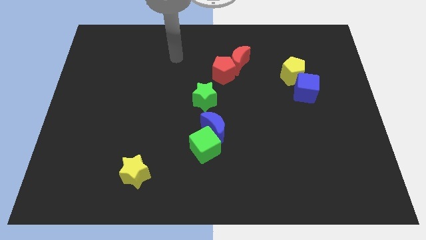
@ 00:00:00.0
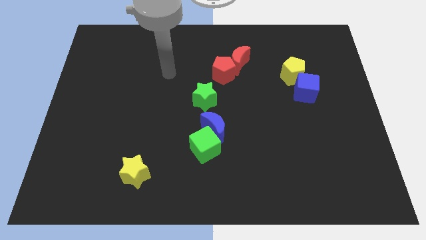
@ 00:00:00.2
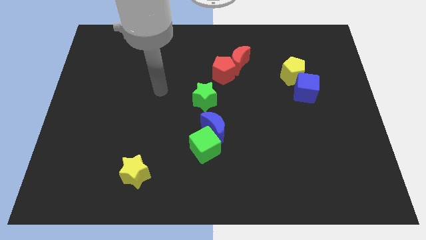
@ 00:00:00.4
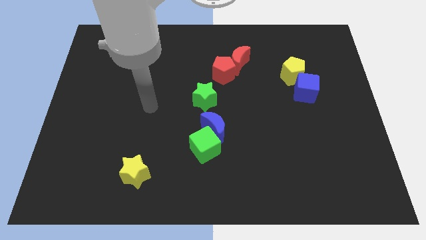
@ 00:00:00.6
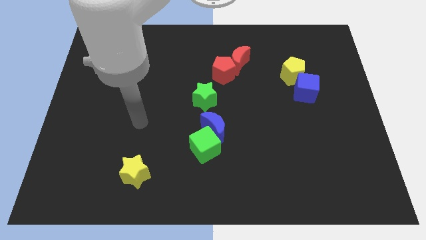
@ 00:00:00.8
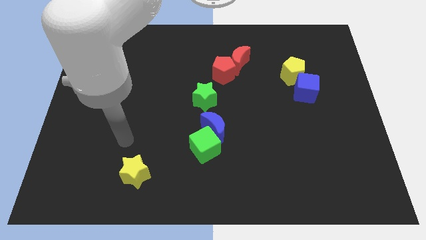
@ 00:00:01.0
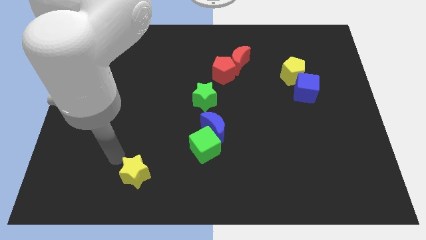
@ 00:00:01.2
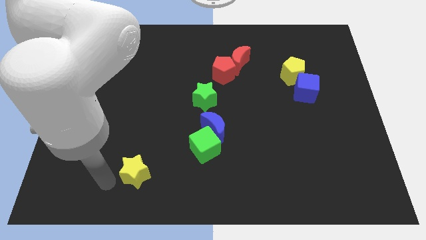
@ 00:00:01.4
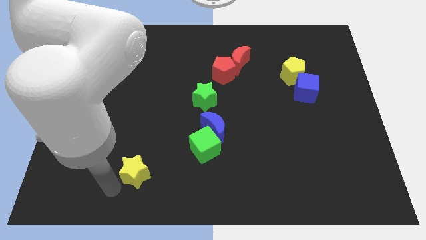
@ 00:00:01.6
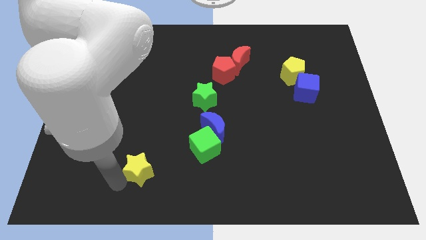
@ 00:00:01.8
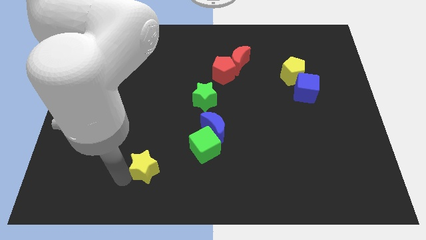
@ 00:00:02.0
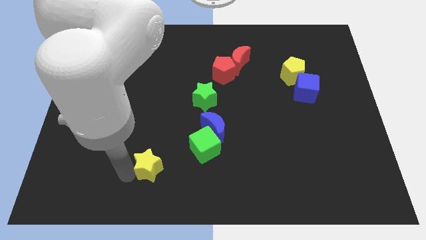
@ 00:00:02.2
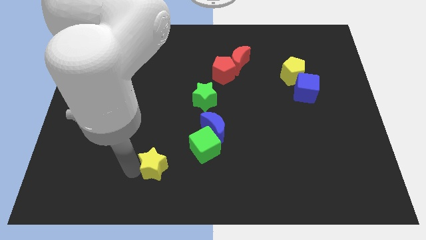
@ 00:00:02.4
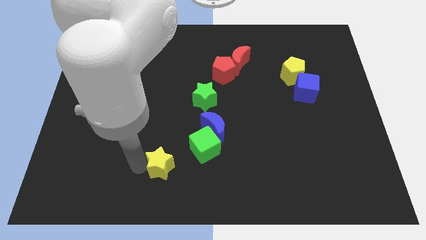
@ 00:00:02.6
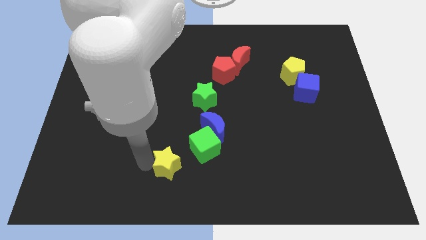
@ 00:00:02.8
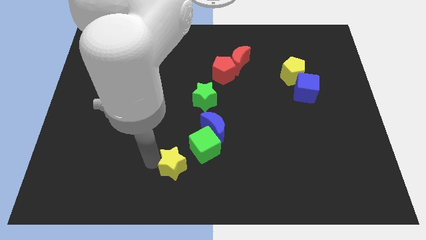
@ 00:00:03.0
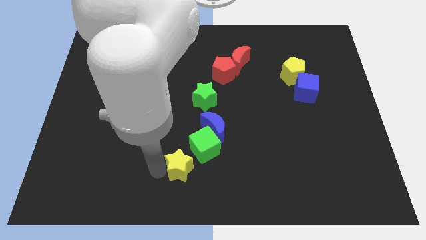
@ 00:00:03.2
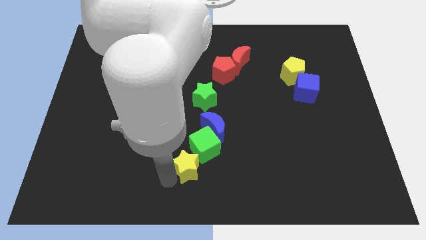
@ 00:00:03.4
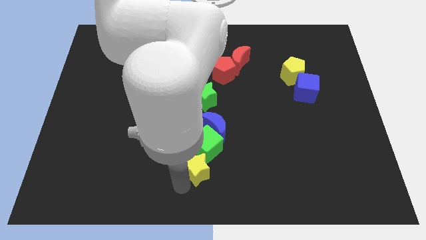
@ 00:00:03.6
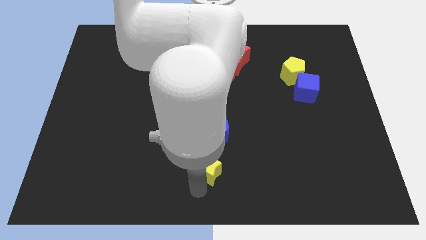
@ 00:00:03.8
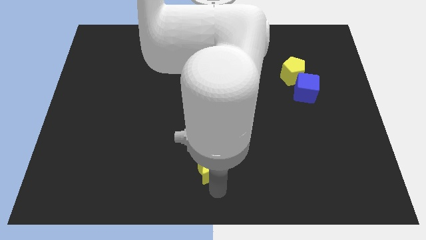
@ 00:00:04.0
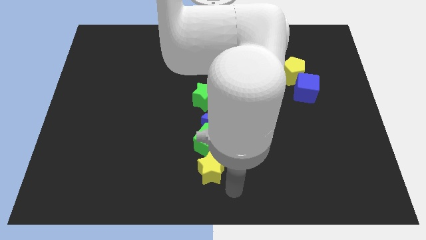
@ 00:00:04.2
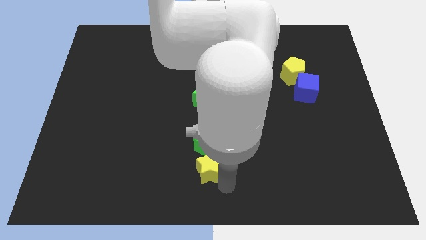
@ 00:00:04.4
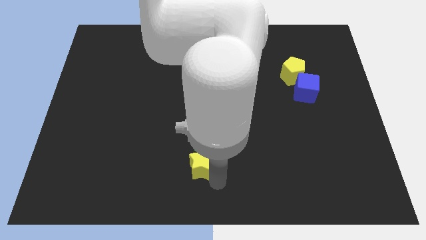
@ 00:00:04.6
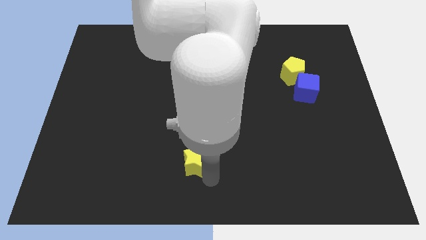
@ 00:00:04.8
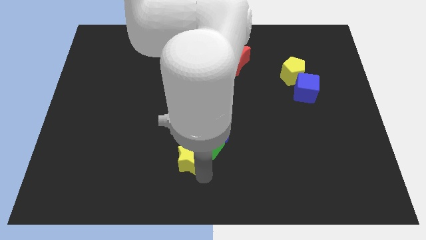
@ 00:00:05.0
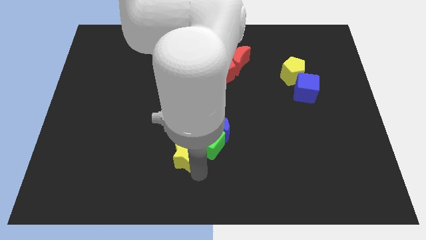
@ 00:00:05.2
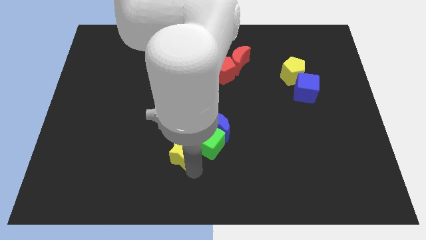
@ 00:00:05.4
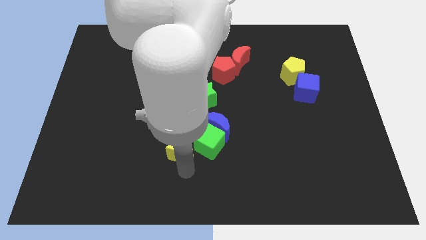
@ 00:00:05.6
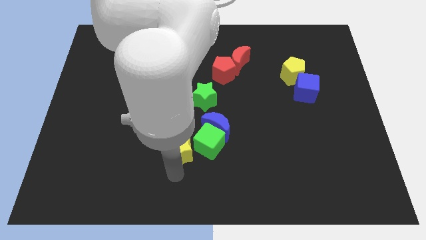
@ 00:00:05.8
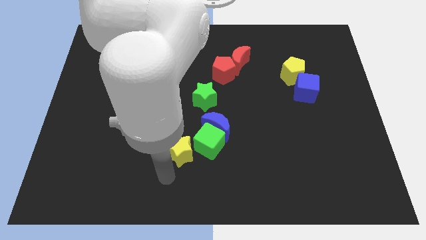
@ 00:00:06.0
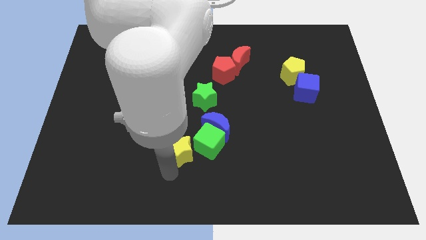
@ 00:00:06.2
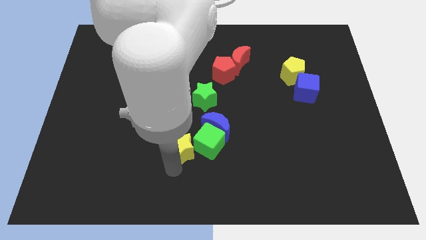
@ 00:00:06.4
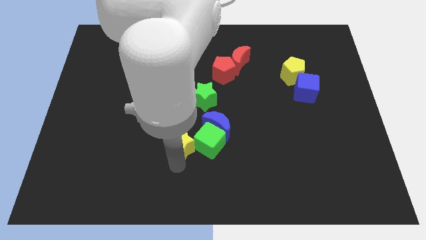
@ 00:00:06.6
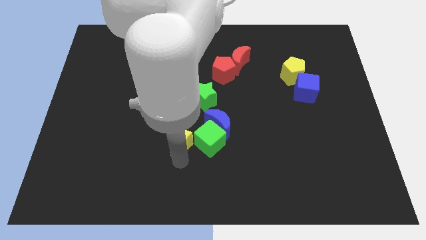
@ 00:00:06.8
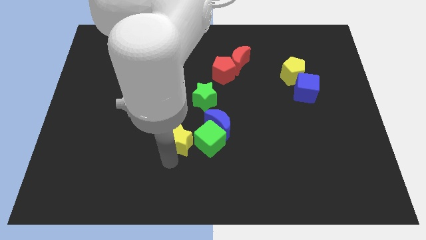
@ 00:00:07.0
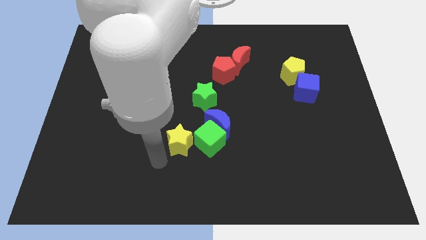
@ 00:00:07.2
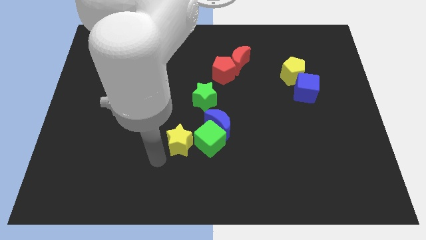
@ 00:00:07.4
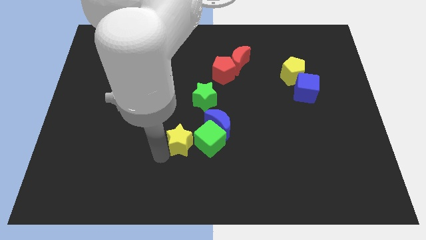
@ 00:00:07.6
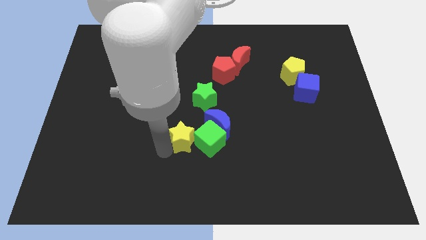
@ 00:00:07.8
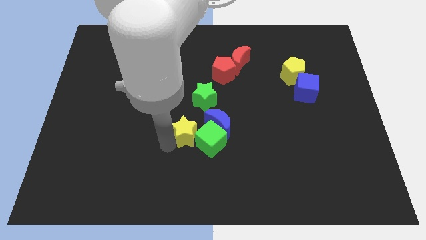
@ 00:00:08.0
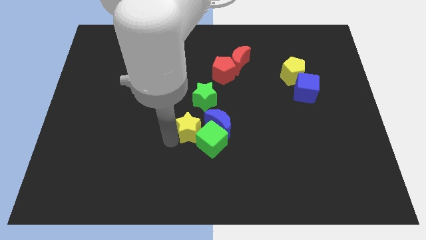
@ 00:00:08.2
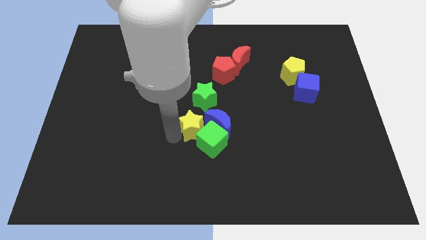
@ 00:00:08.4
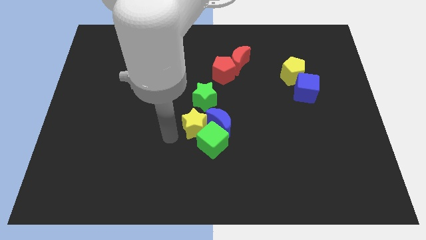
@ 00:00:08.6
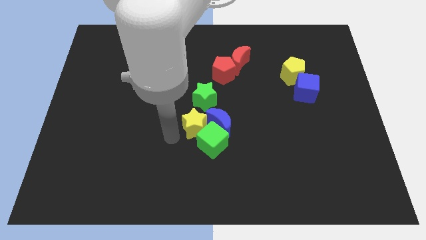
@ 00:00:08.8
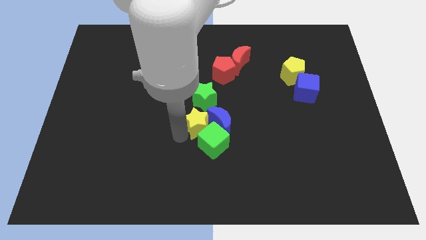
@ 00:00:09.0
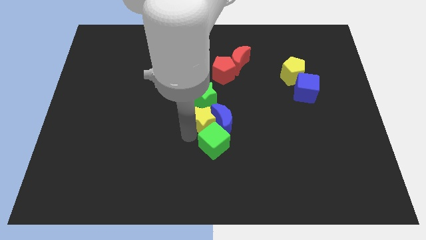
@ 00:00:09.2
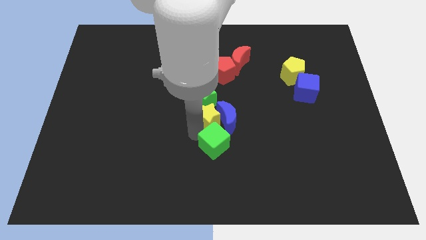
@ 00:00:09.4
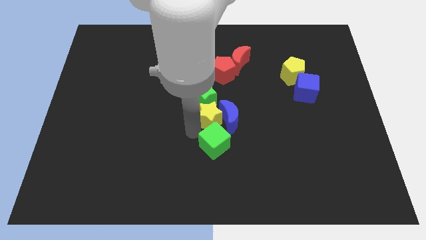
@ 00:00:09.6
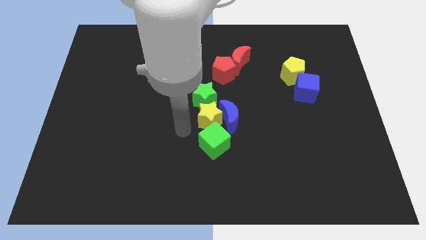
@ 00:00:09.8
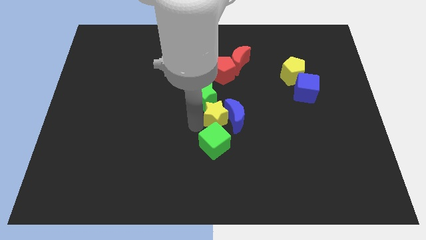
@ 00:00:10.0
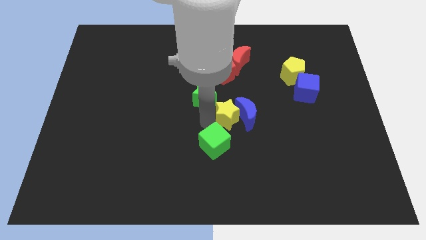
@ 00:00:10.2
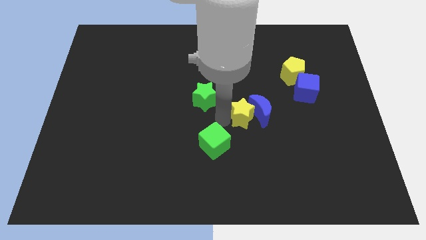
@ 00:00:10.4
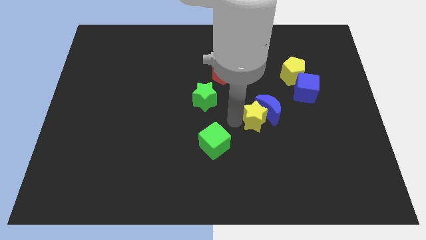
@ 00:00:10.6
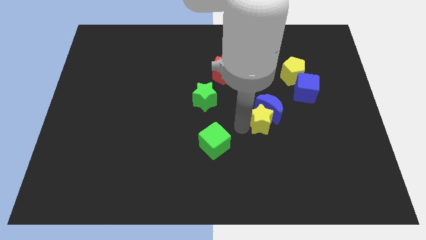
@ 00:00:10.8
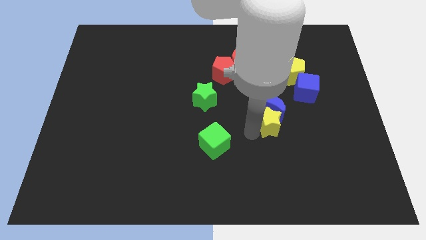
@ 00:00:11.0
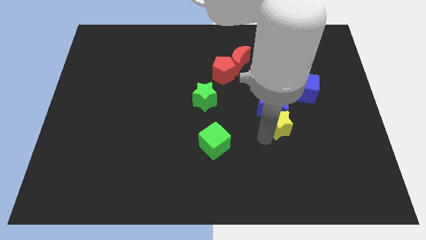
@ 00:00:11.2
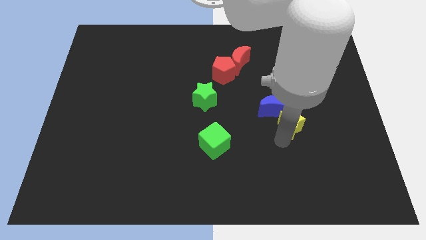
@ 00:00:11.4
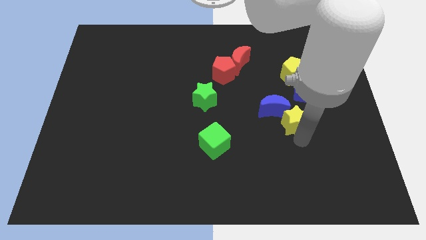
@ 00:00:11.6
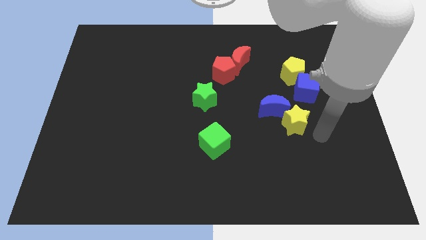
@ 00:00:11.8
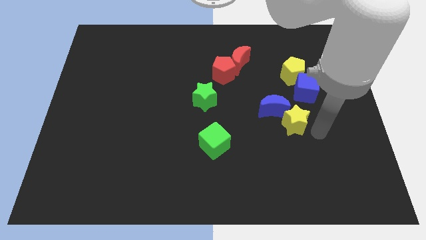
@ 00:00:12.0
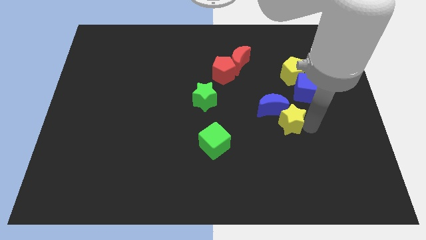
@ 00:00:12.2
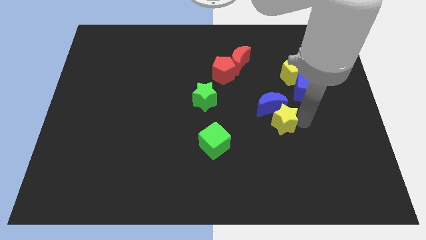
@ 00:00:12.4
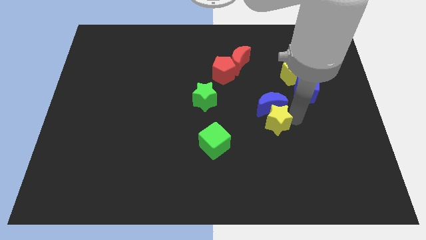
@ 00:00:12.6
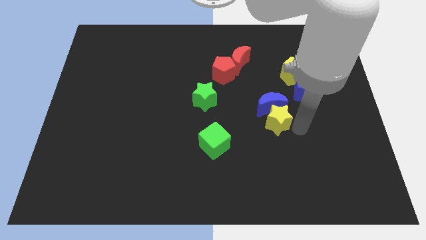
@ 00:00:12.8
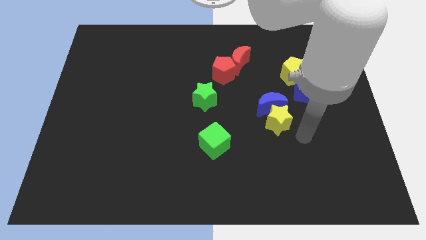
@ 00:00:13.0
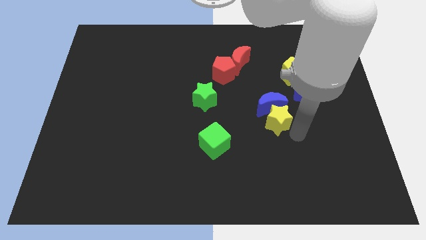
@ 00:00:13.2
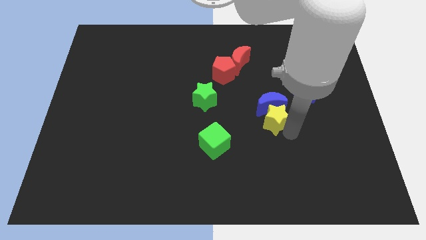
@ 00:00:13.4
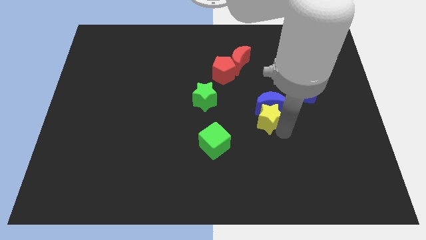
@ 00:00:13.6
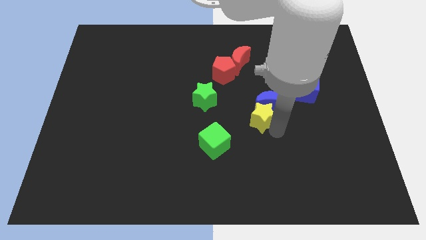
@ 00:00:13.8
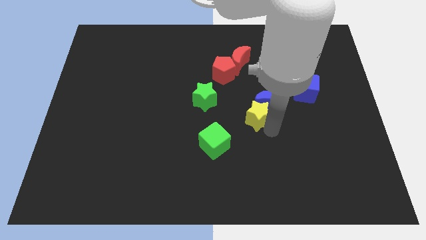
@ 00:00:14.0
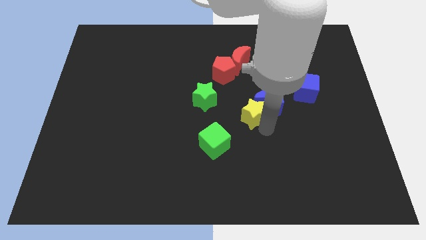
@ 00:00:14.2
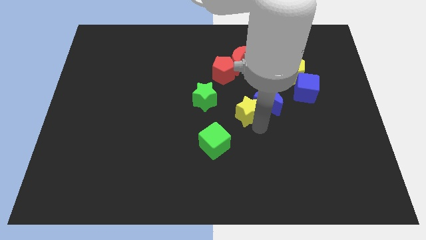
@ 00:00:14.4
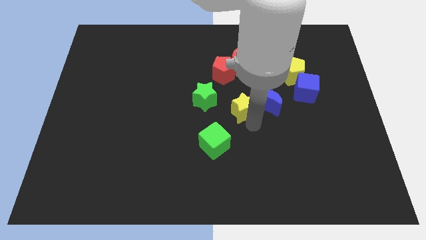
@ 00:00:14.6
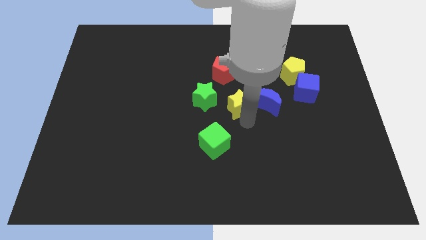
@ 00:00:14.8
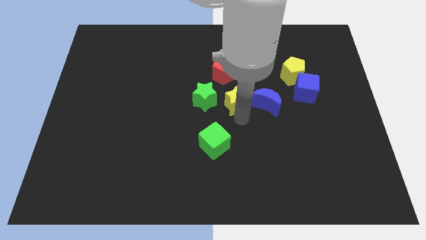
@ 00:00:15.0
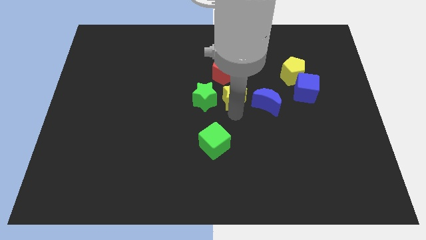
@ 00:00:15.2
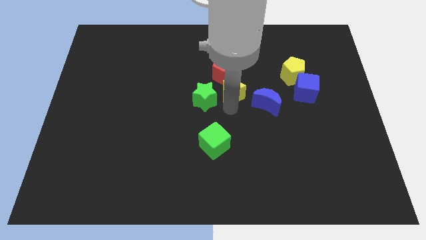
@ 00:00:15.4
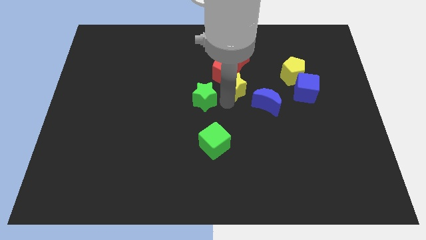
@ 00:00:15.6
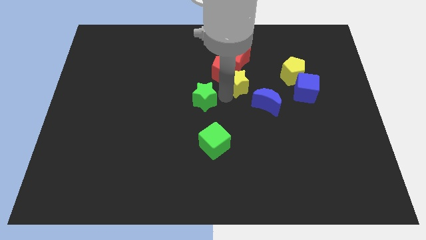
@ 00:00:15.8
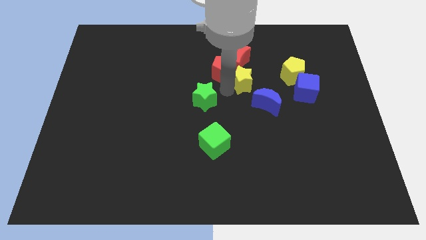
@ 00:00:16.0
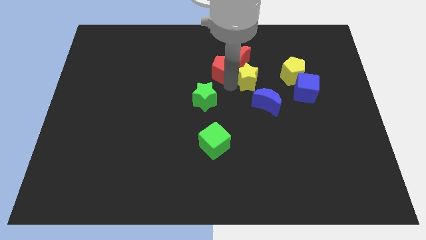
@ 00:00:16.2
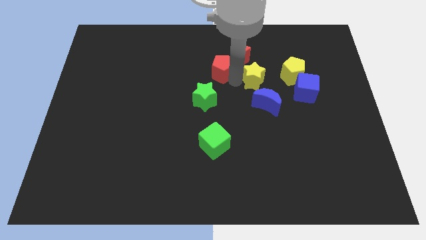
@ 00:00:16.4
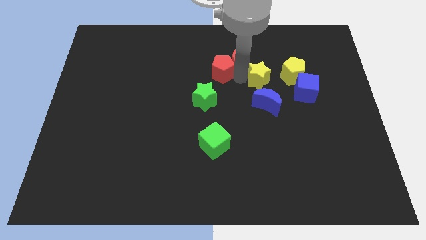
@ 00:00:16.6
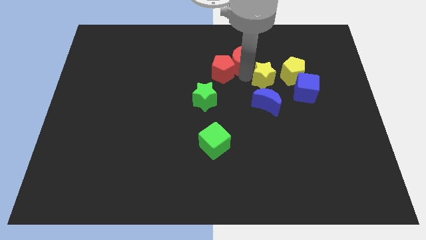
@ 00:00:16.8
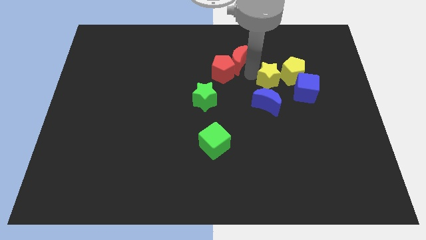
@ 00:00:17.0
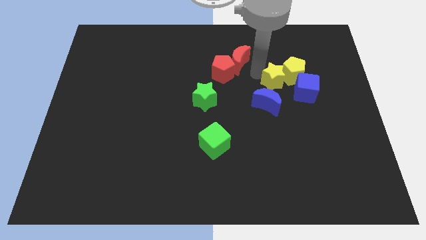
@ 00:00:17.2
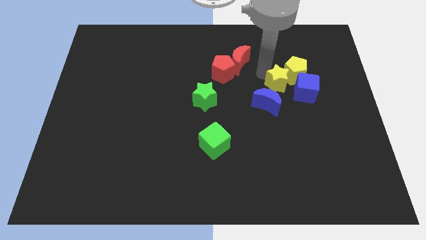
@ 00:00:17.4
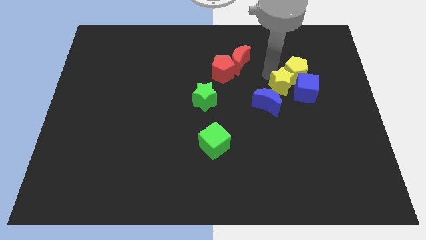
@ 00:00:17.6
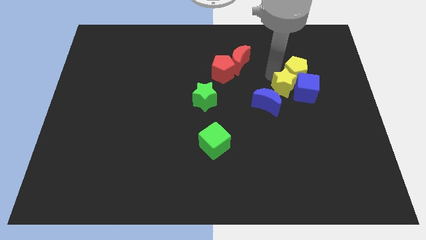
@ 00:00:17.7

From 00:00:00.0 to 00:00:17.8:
move the yellow star close to the blue cube
